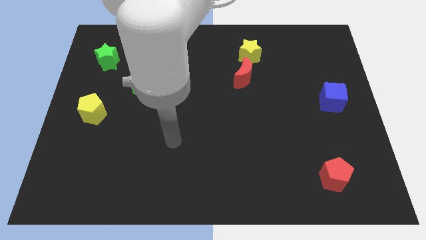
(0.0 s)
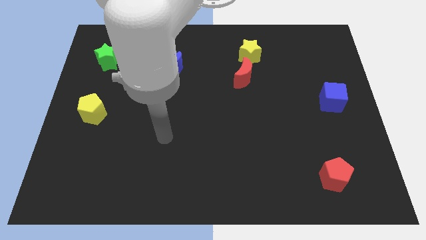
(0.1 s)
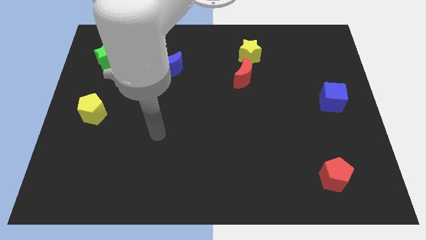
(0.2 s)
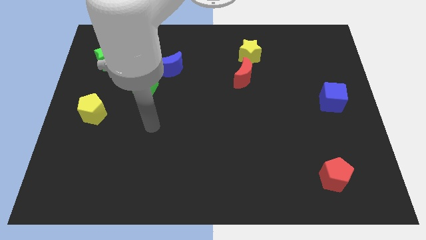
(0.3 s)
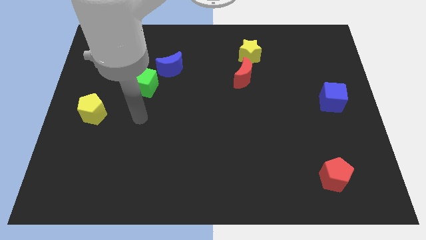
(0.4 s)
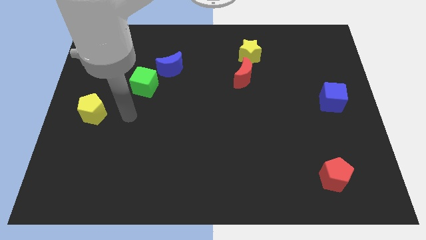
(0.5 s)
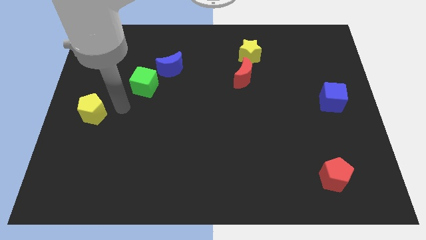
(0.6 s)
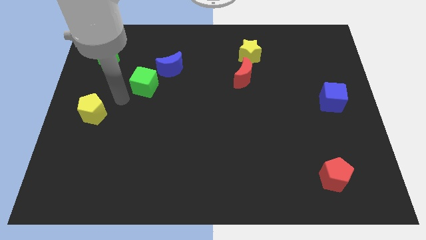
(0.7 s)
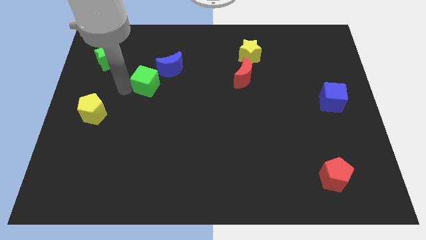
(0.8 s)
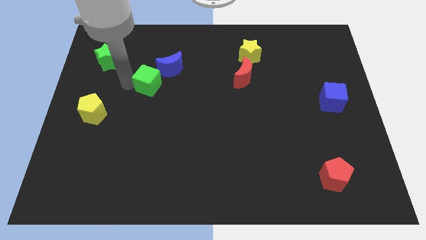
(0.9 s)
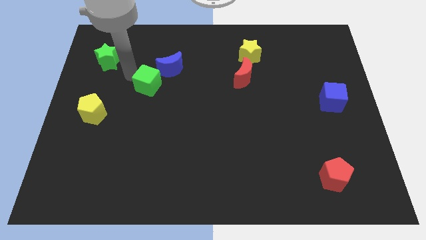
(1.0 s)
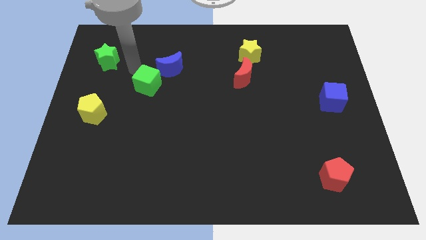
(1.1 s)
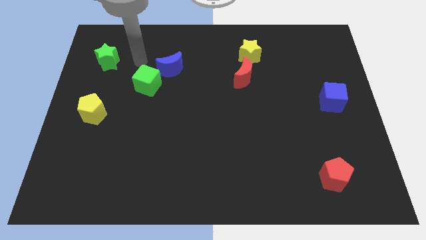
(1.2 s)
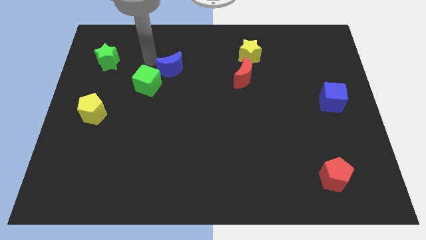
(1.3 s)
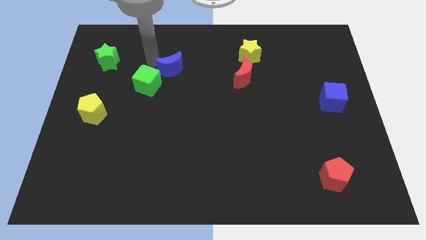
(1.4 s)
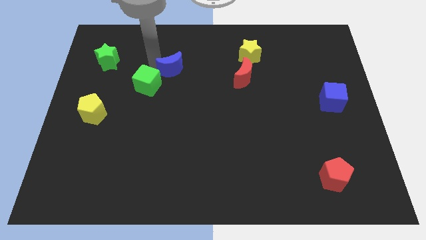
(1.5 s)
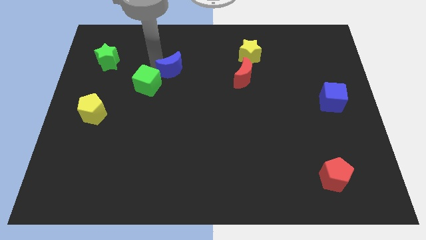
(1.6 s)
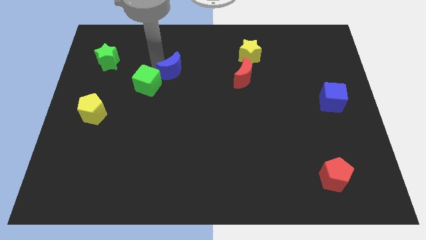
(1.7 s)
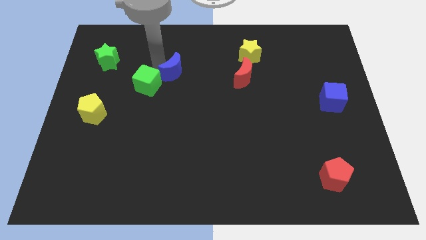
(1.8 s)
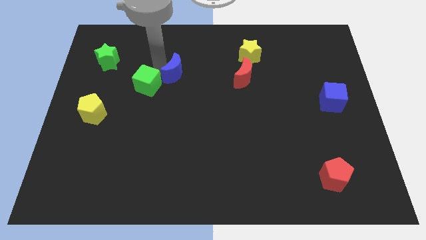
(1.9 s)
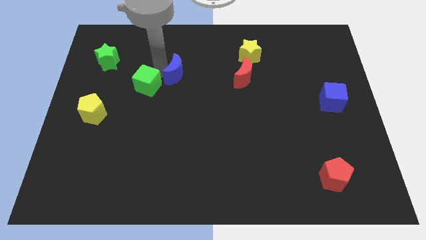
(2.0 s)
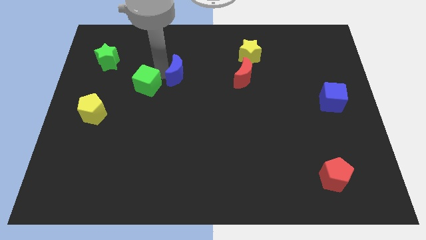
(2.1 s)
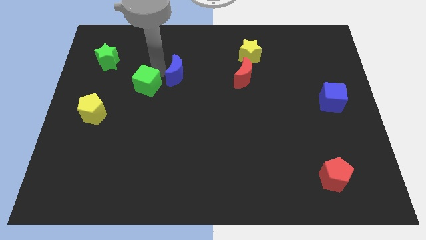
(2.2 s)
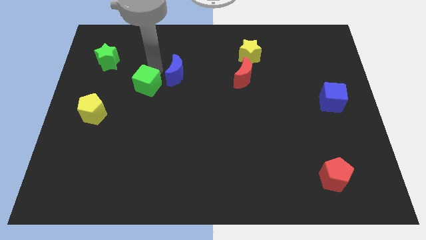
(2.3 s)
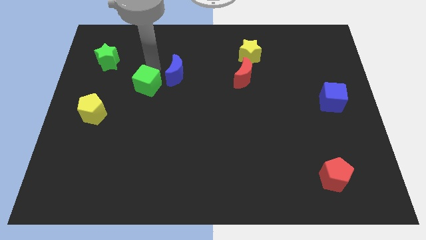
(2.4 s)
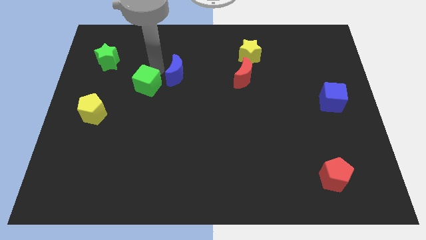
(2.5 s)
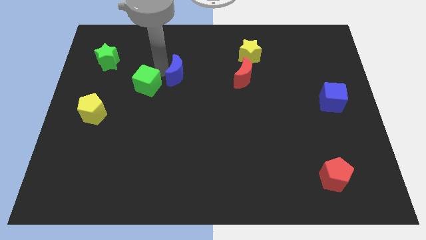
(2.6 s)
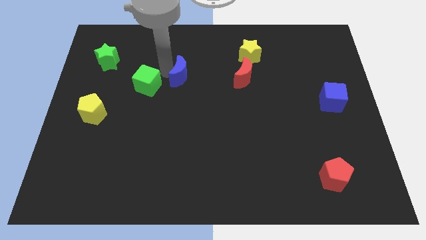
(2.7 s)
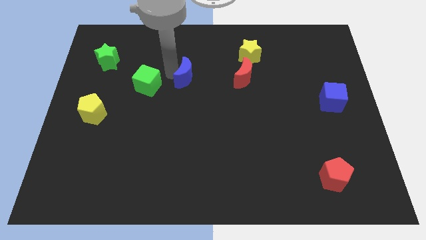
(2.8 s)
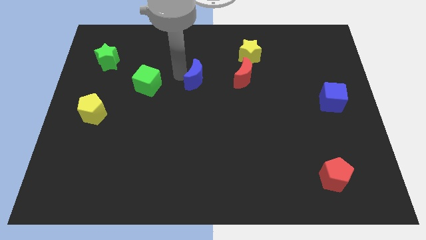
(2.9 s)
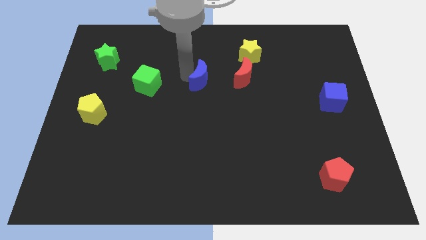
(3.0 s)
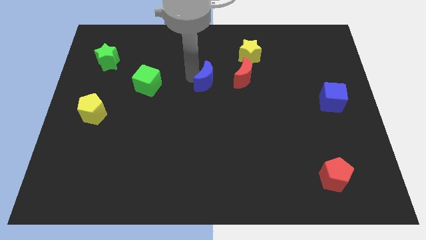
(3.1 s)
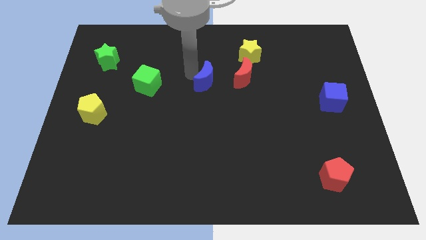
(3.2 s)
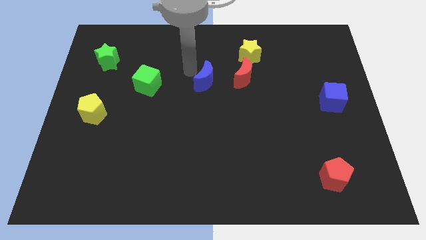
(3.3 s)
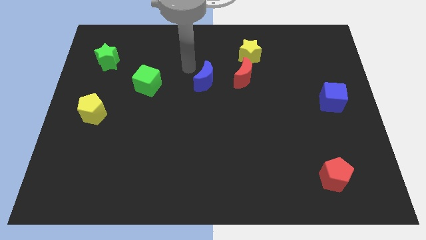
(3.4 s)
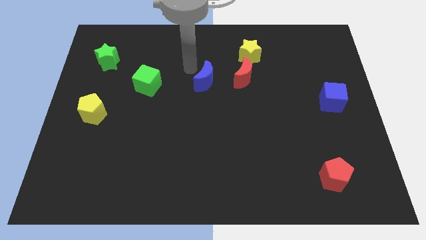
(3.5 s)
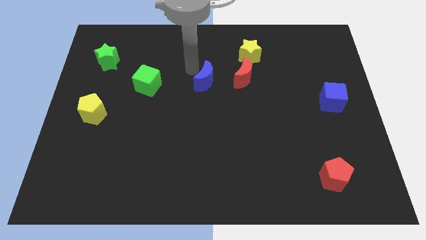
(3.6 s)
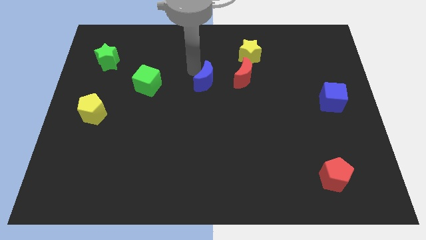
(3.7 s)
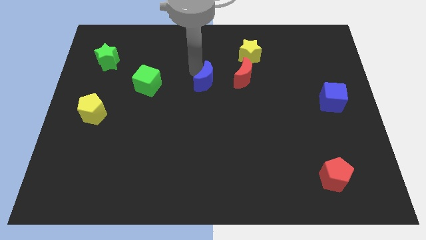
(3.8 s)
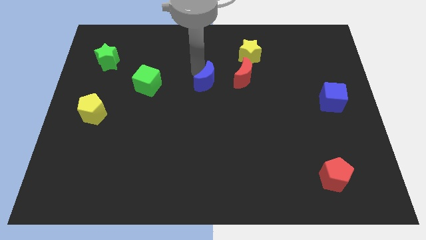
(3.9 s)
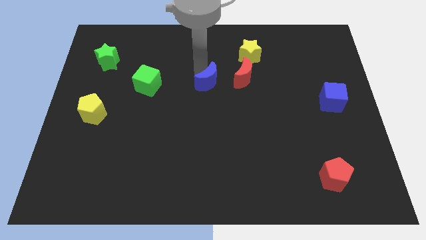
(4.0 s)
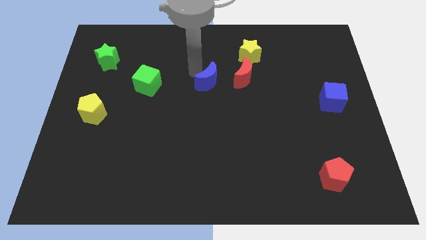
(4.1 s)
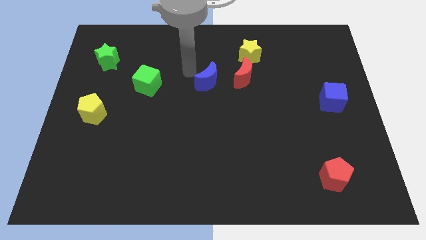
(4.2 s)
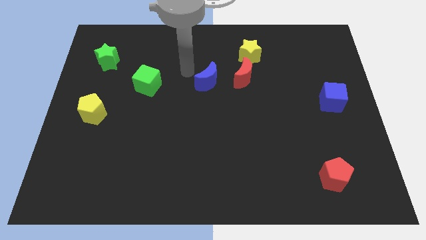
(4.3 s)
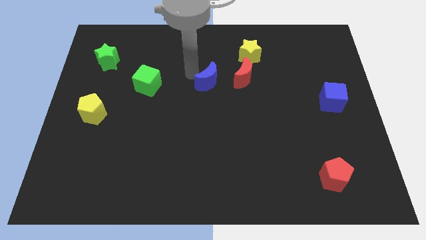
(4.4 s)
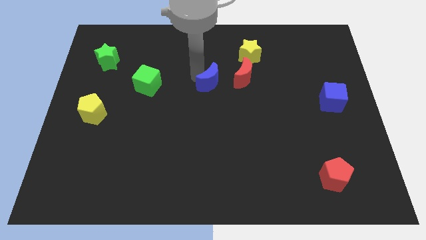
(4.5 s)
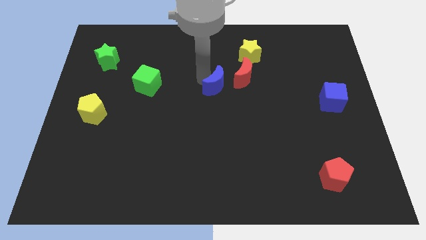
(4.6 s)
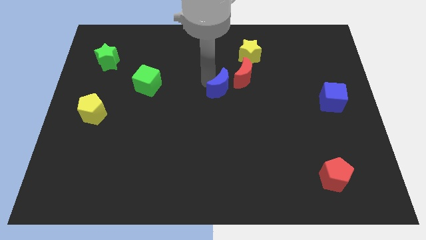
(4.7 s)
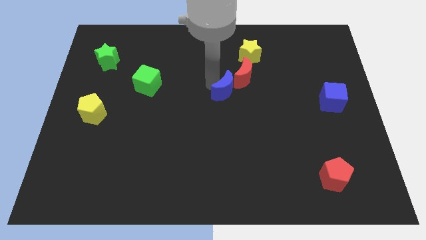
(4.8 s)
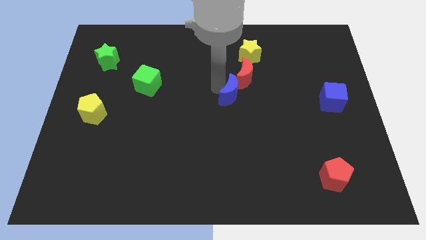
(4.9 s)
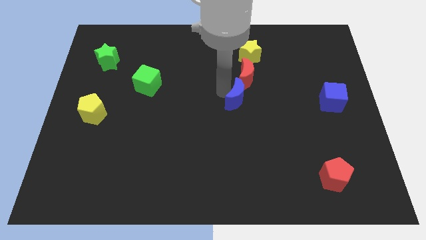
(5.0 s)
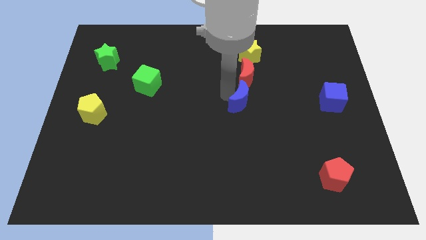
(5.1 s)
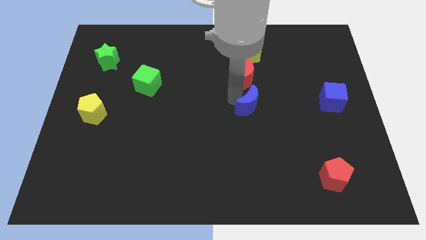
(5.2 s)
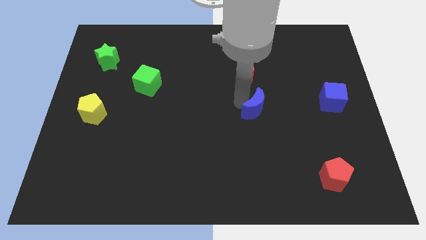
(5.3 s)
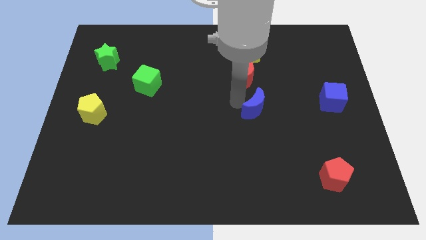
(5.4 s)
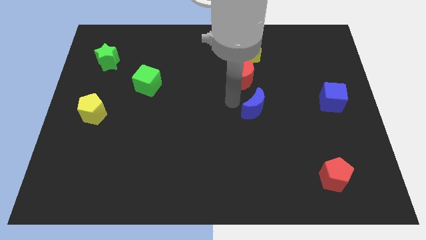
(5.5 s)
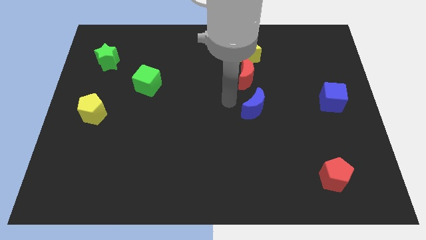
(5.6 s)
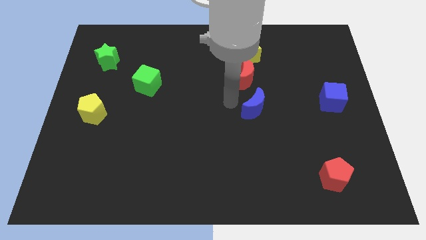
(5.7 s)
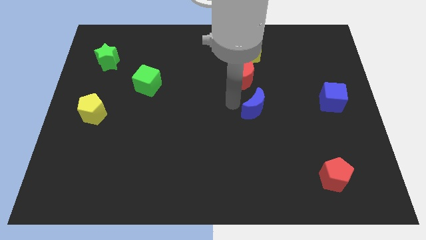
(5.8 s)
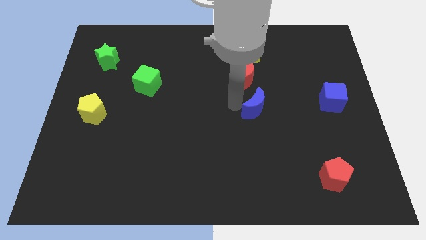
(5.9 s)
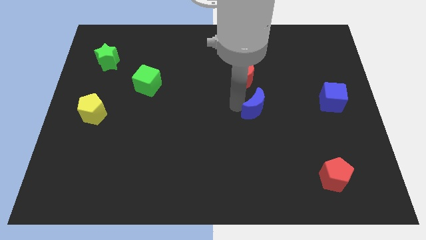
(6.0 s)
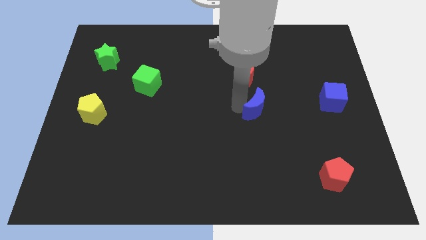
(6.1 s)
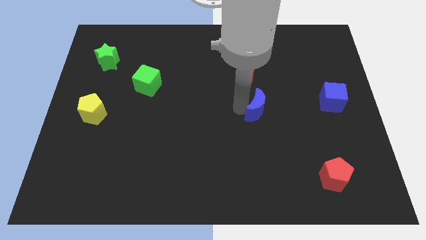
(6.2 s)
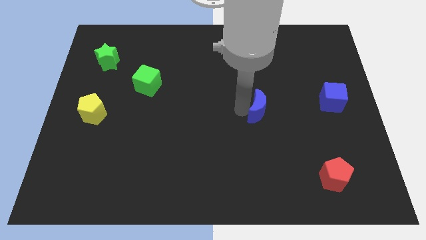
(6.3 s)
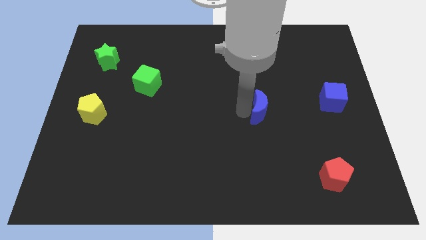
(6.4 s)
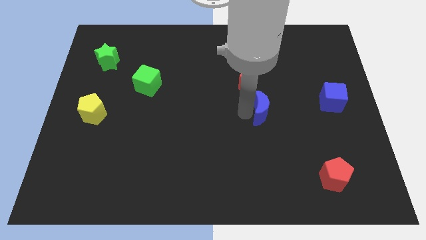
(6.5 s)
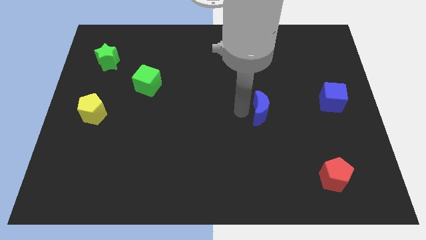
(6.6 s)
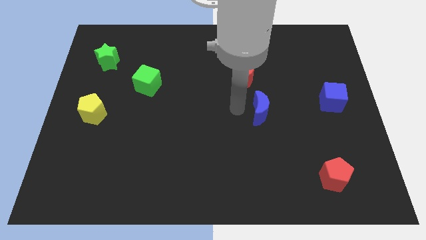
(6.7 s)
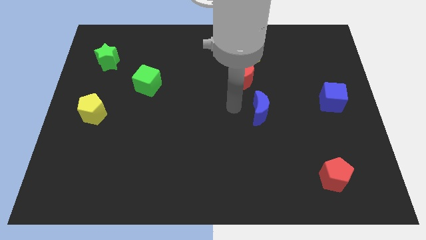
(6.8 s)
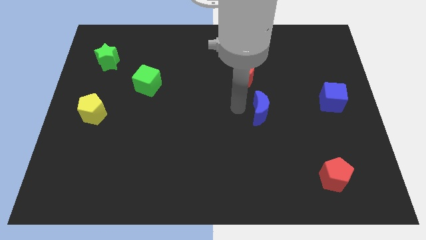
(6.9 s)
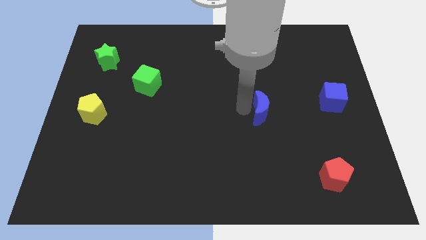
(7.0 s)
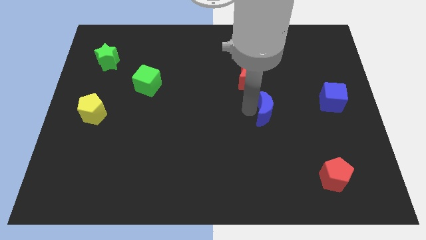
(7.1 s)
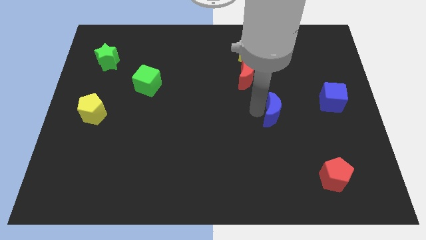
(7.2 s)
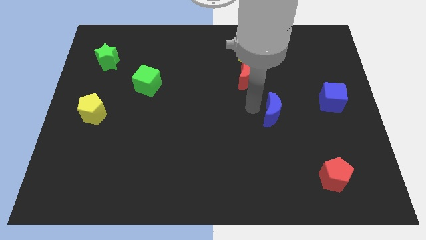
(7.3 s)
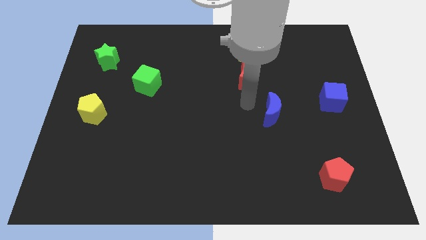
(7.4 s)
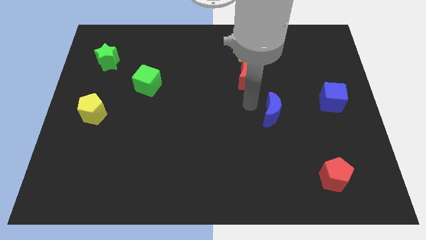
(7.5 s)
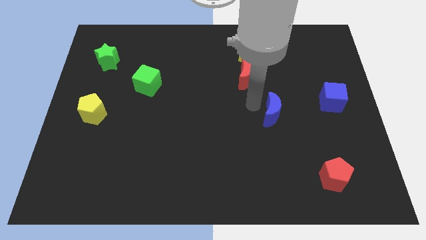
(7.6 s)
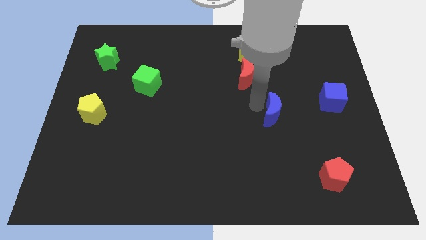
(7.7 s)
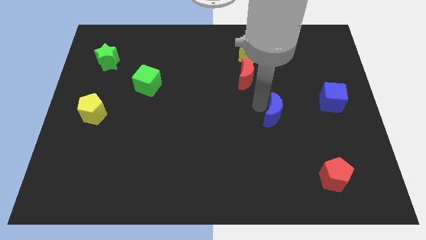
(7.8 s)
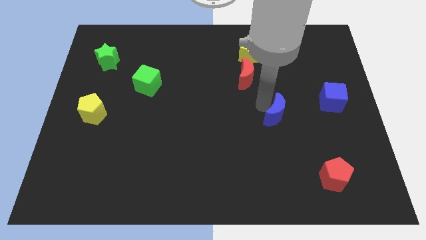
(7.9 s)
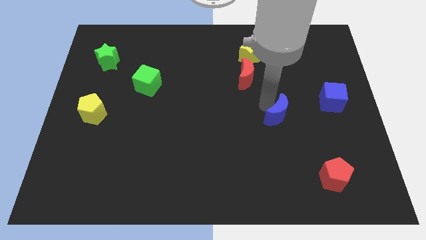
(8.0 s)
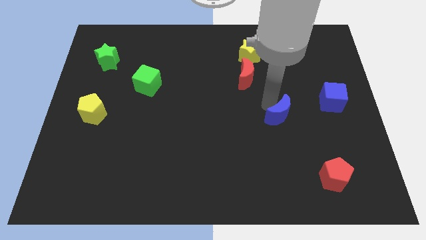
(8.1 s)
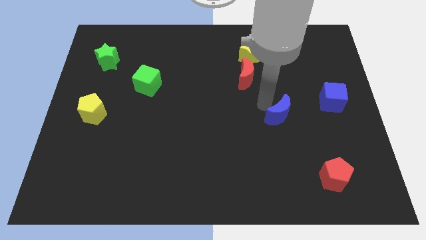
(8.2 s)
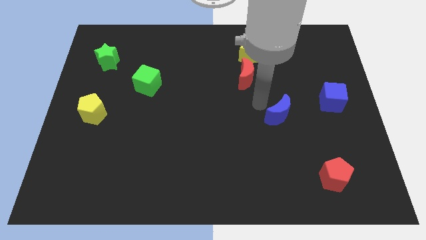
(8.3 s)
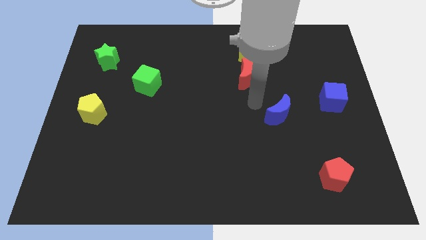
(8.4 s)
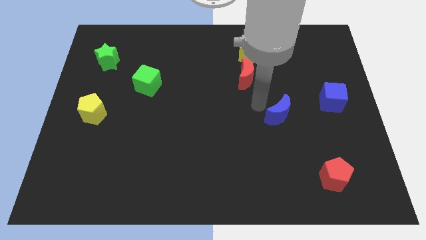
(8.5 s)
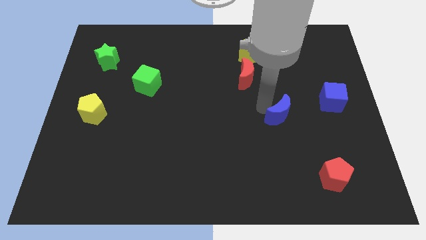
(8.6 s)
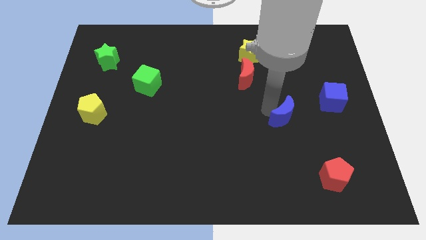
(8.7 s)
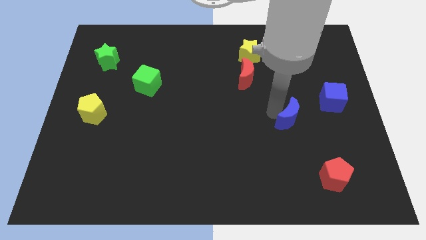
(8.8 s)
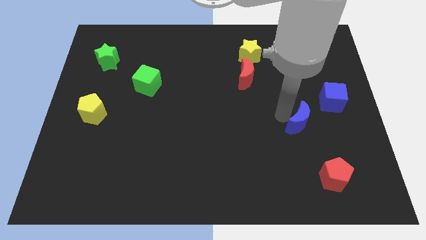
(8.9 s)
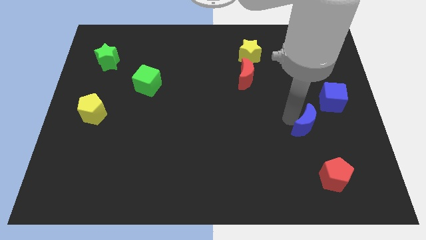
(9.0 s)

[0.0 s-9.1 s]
slide the blue moon to the top side of the red pentagon
